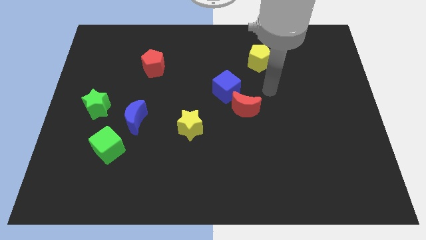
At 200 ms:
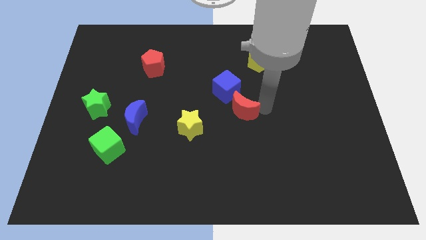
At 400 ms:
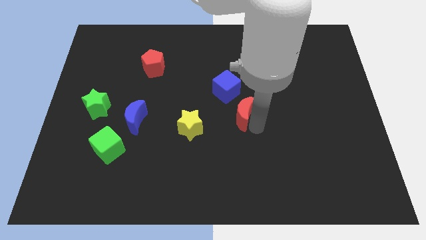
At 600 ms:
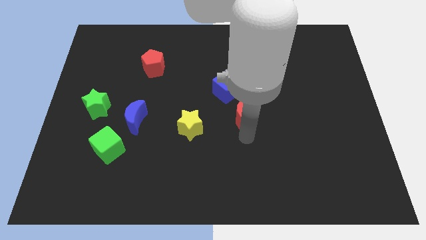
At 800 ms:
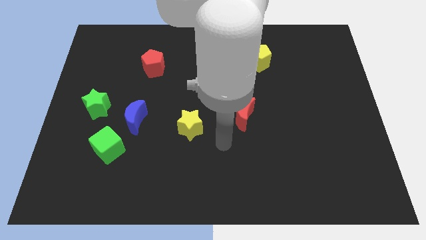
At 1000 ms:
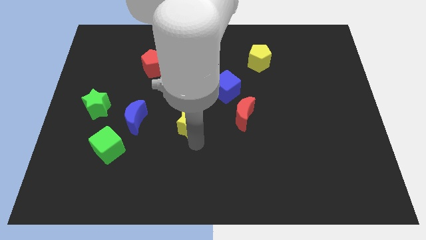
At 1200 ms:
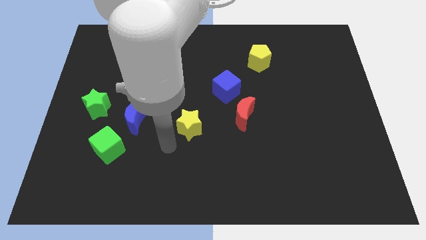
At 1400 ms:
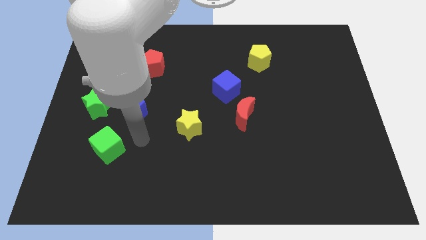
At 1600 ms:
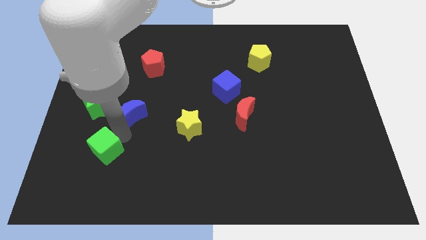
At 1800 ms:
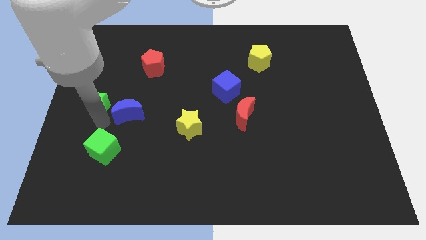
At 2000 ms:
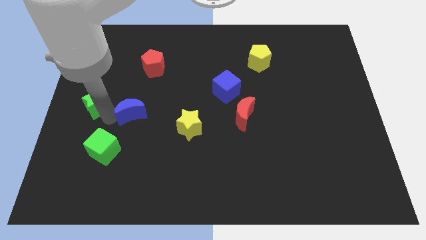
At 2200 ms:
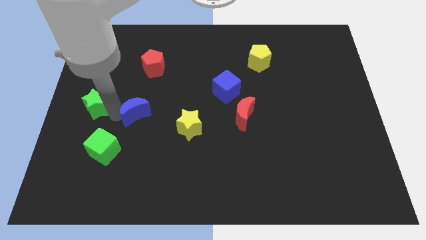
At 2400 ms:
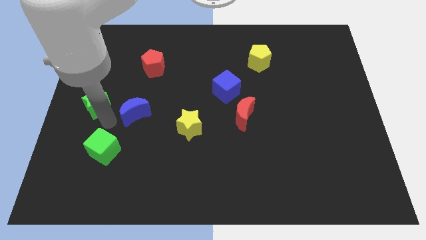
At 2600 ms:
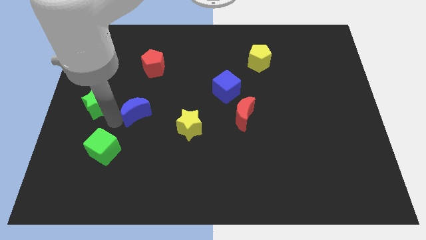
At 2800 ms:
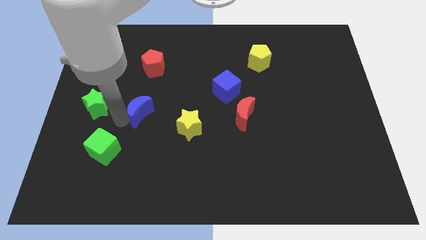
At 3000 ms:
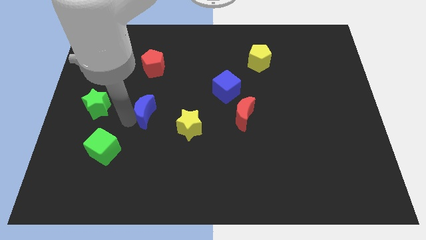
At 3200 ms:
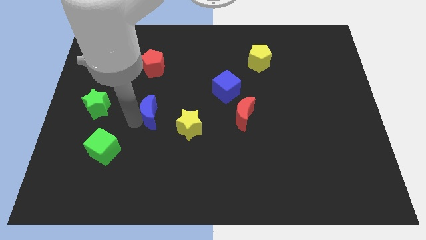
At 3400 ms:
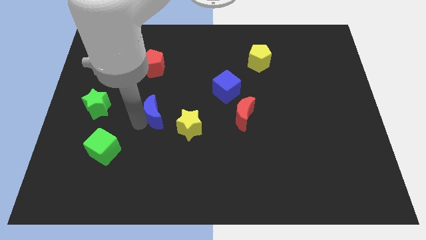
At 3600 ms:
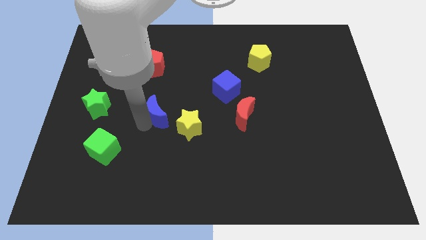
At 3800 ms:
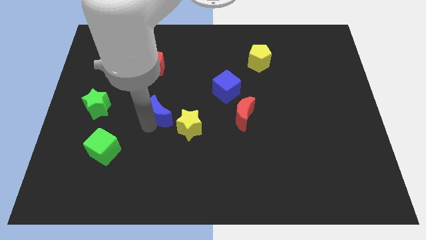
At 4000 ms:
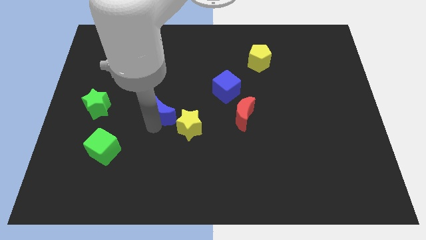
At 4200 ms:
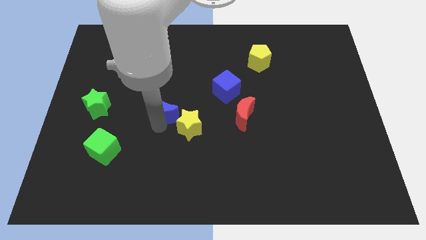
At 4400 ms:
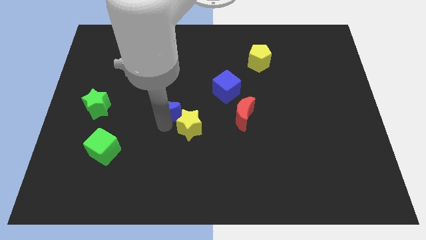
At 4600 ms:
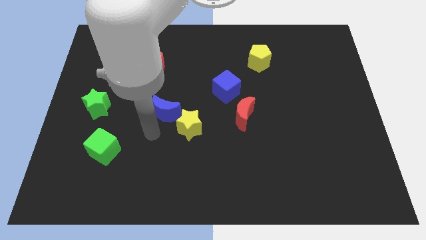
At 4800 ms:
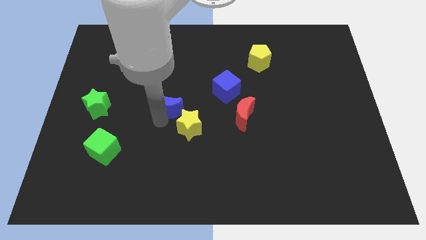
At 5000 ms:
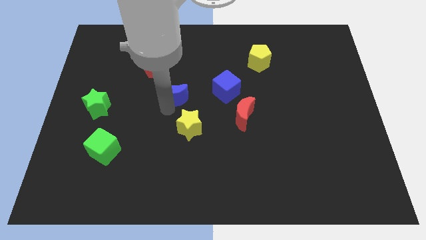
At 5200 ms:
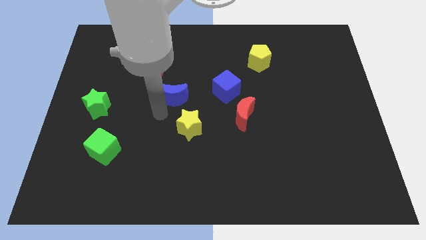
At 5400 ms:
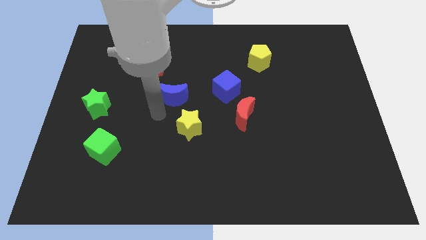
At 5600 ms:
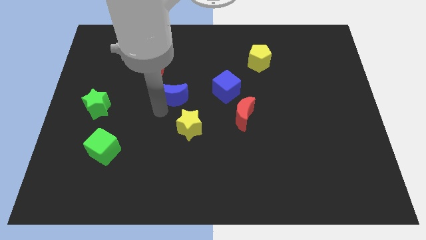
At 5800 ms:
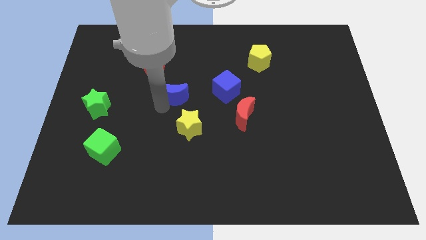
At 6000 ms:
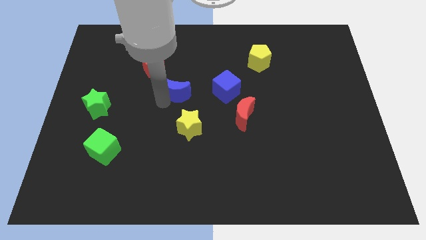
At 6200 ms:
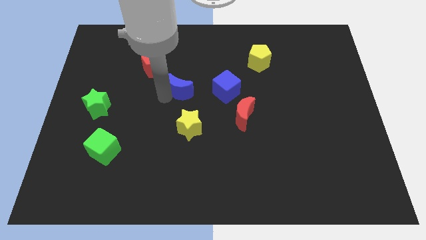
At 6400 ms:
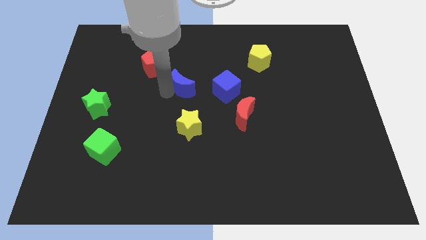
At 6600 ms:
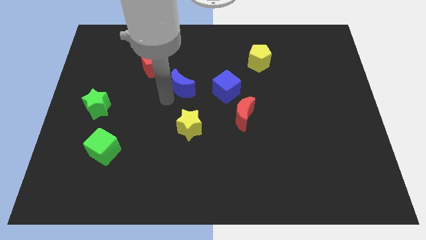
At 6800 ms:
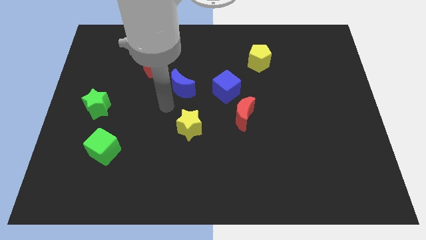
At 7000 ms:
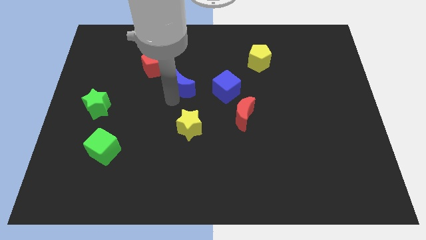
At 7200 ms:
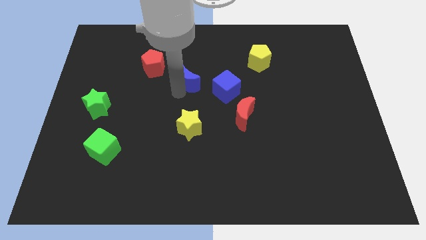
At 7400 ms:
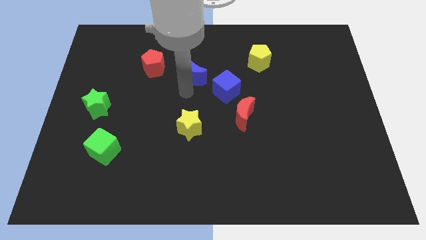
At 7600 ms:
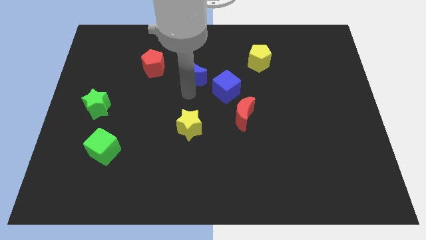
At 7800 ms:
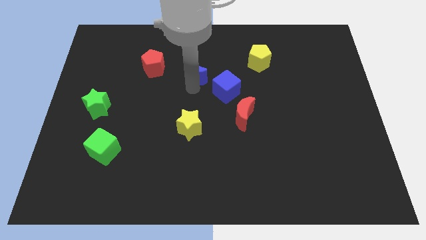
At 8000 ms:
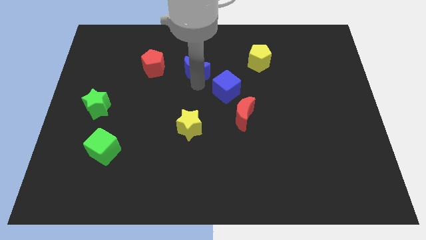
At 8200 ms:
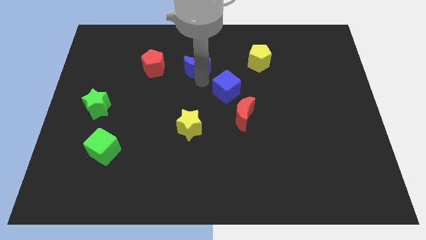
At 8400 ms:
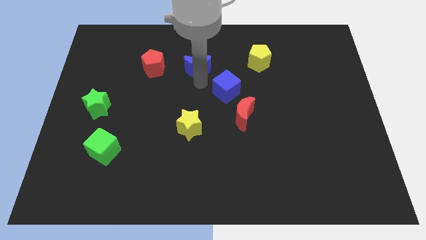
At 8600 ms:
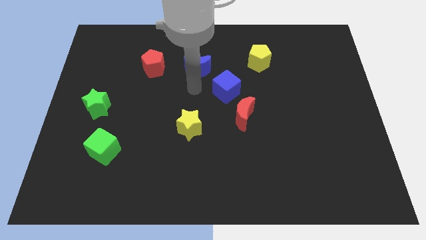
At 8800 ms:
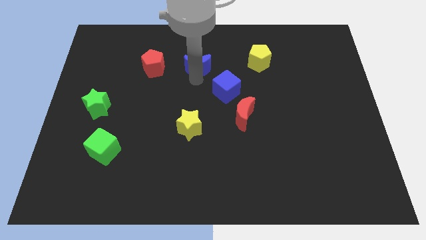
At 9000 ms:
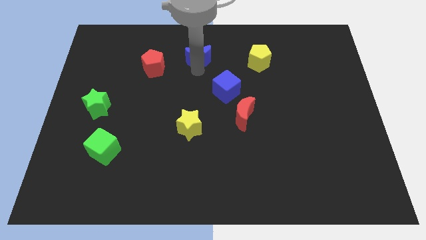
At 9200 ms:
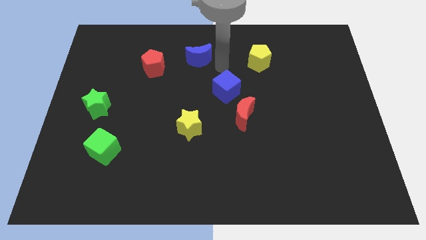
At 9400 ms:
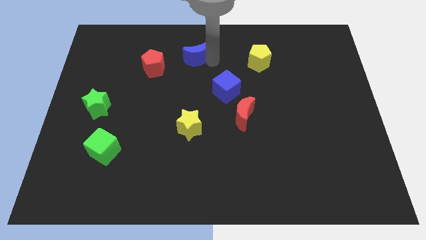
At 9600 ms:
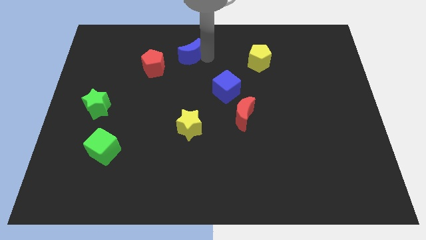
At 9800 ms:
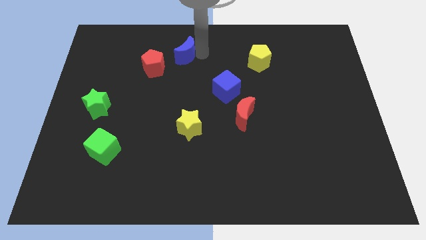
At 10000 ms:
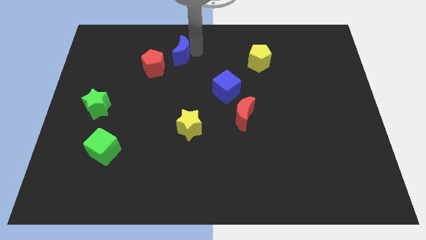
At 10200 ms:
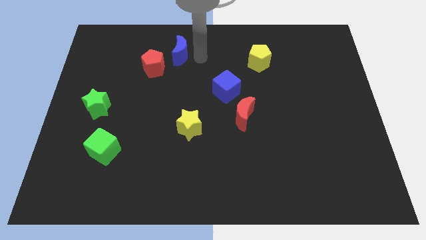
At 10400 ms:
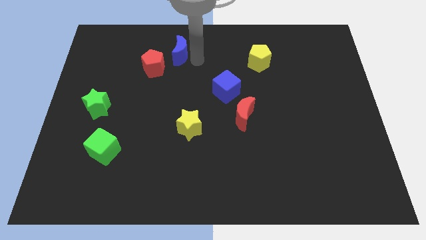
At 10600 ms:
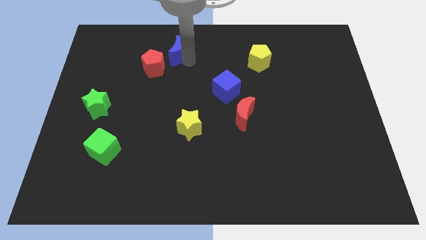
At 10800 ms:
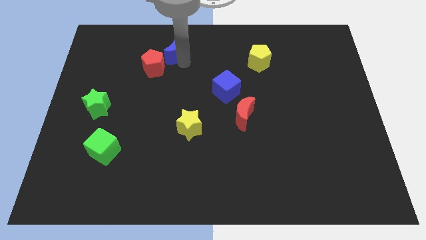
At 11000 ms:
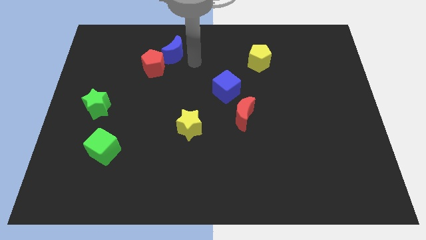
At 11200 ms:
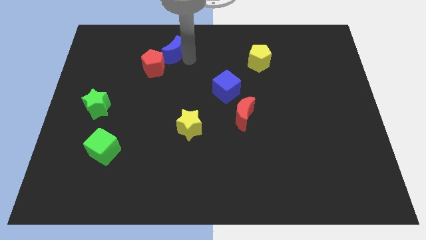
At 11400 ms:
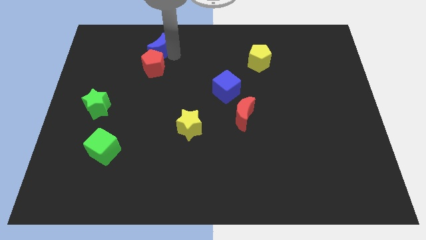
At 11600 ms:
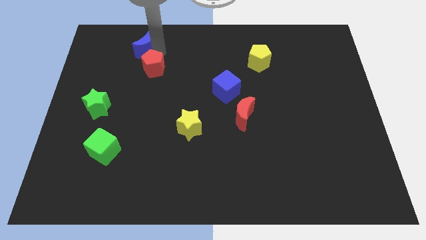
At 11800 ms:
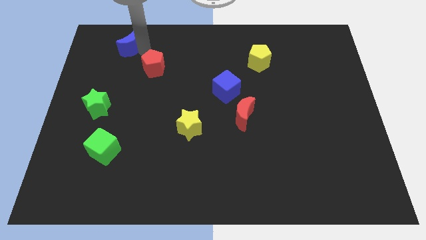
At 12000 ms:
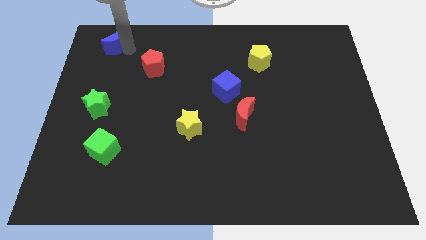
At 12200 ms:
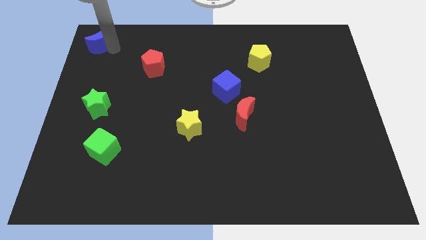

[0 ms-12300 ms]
push the blue moon to the top left
